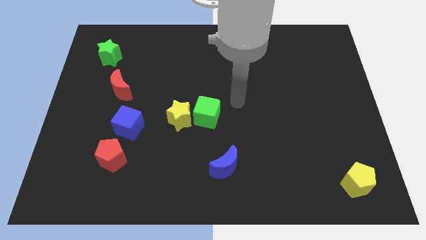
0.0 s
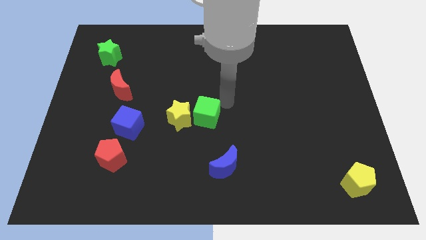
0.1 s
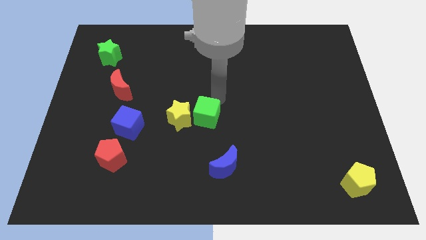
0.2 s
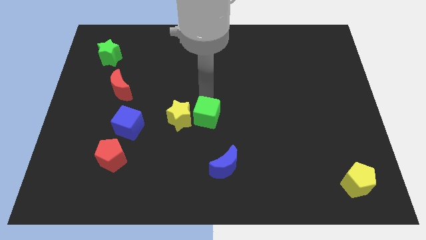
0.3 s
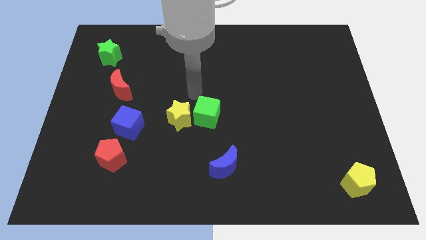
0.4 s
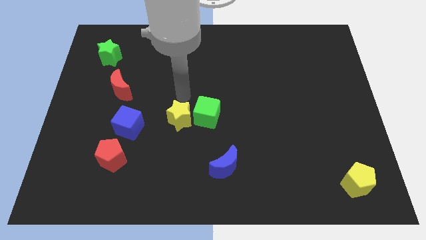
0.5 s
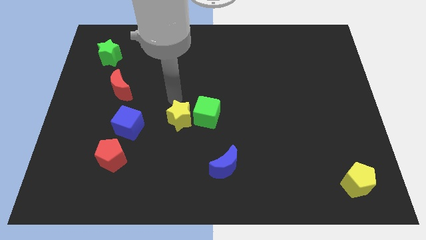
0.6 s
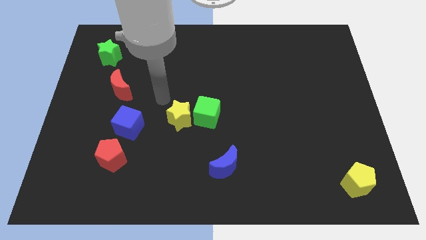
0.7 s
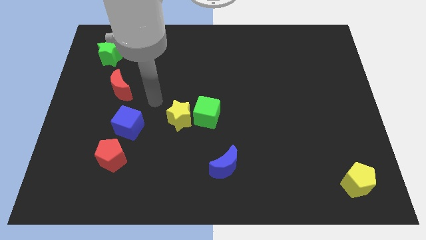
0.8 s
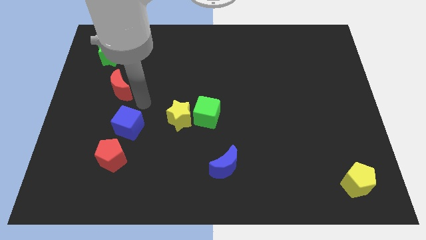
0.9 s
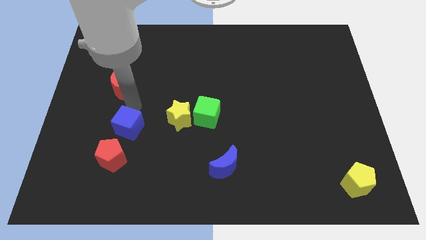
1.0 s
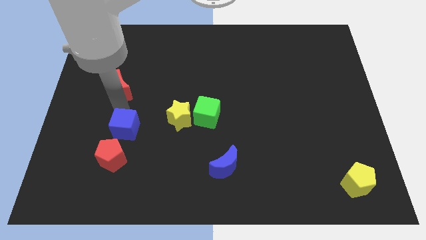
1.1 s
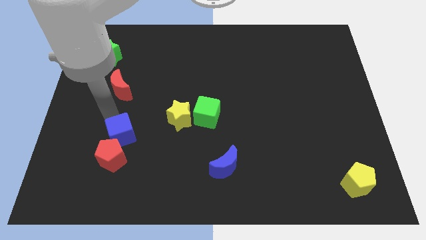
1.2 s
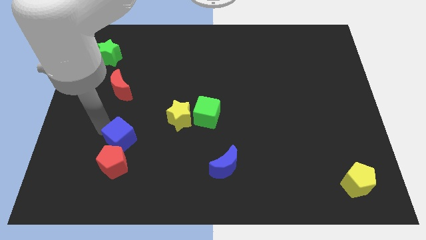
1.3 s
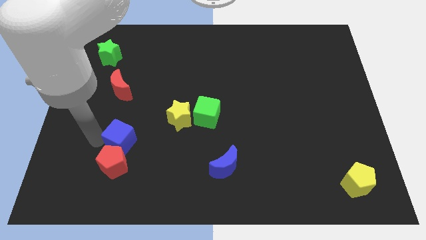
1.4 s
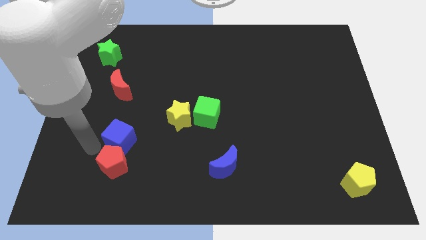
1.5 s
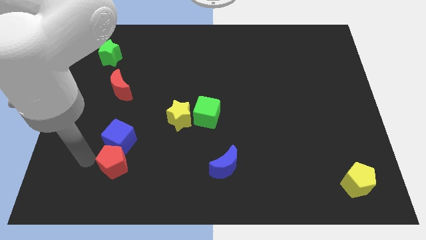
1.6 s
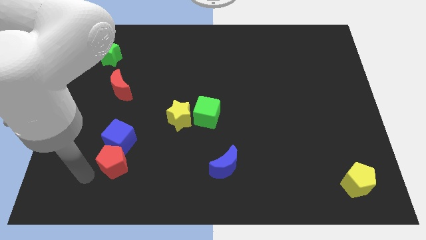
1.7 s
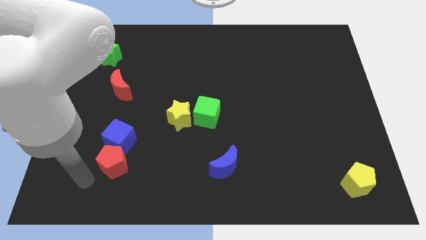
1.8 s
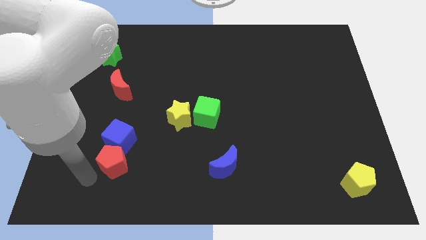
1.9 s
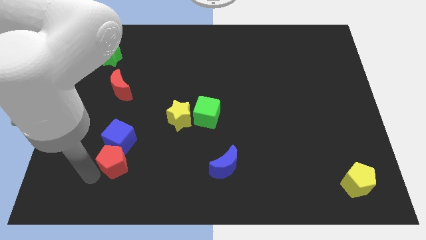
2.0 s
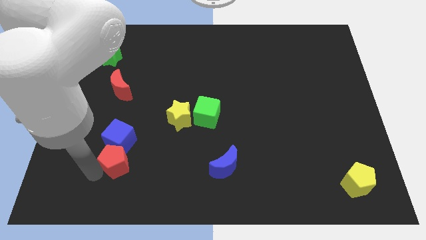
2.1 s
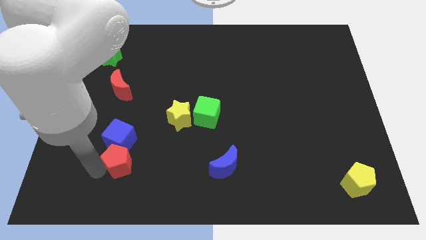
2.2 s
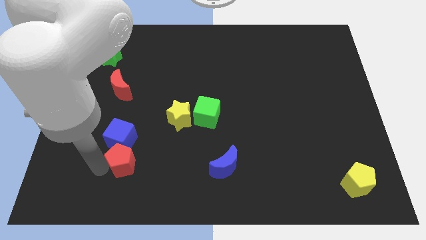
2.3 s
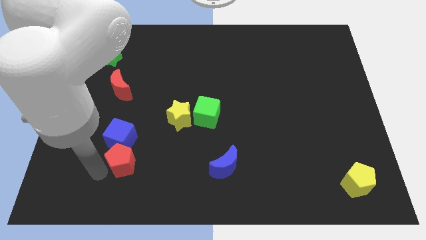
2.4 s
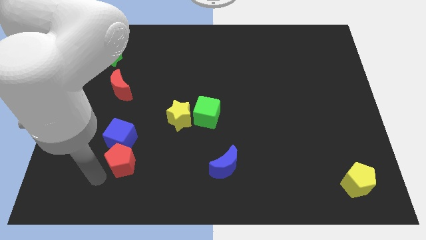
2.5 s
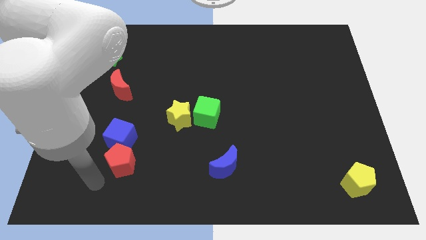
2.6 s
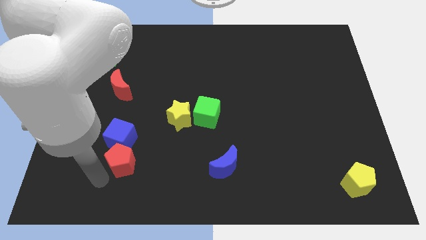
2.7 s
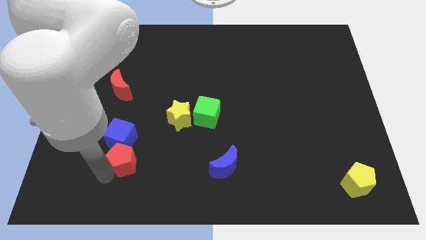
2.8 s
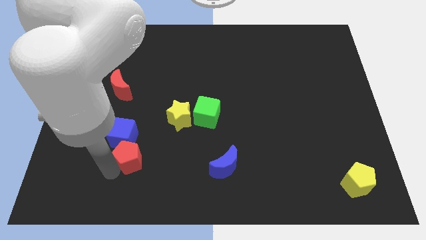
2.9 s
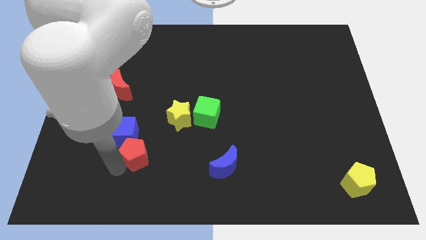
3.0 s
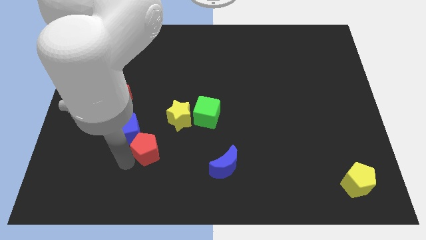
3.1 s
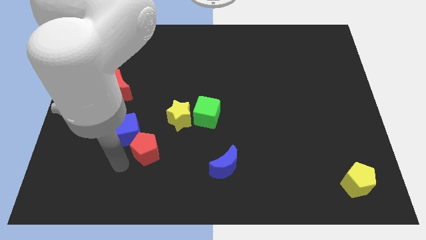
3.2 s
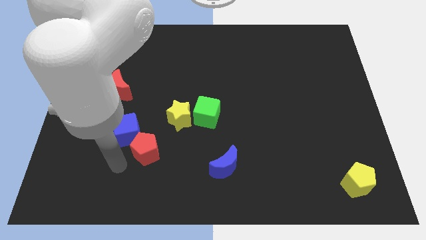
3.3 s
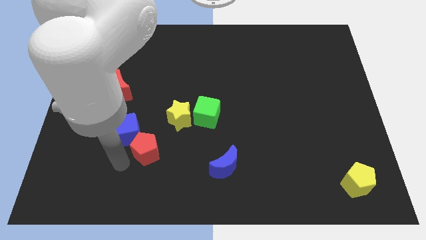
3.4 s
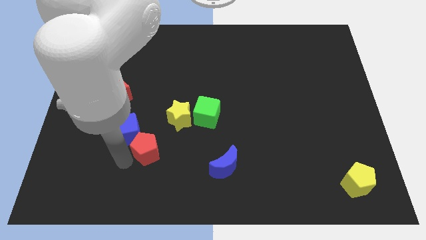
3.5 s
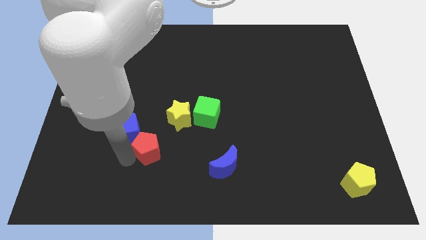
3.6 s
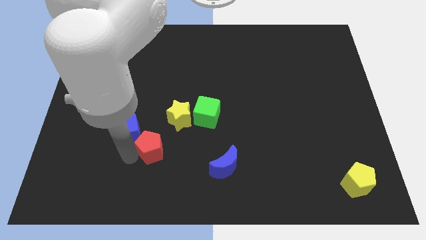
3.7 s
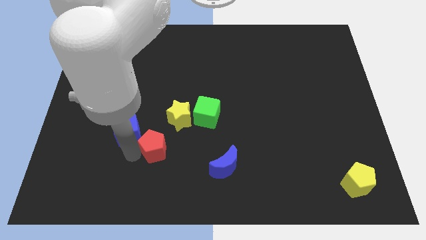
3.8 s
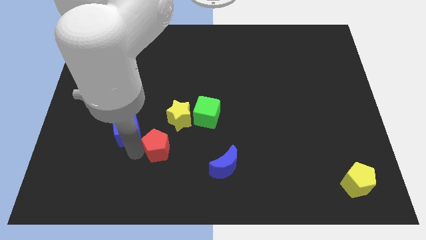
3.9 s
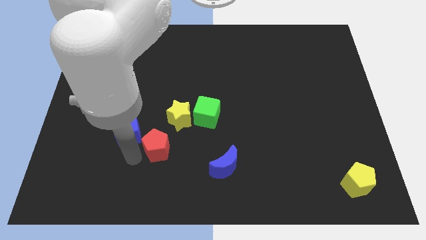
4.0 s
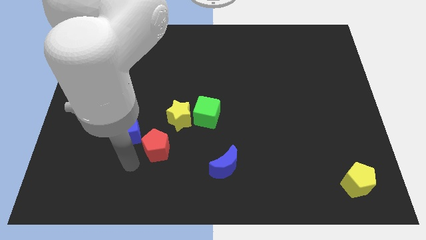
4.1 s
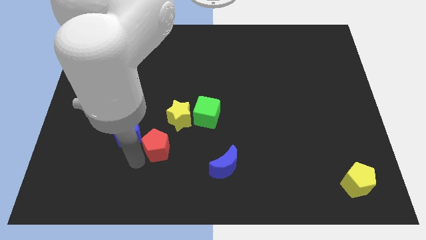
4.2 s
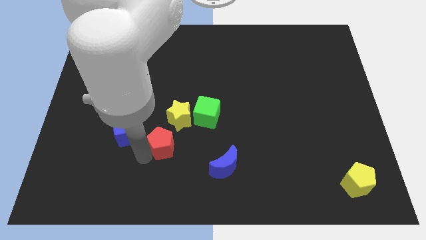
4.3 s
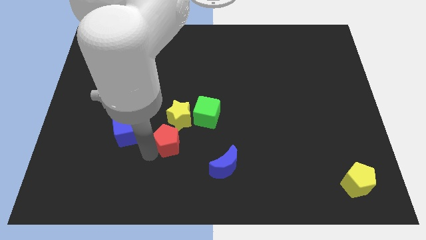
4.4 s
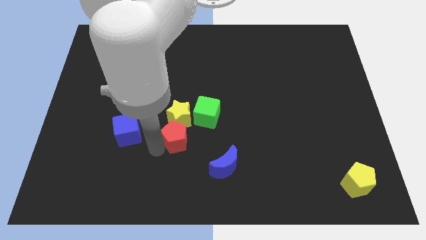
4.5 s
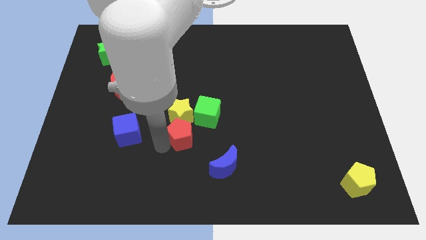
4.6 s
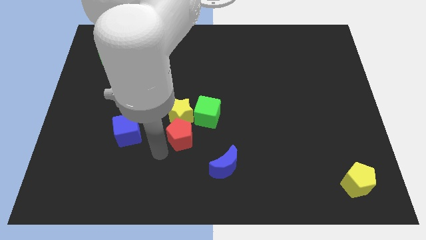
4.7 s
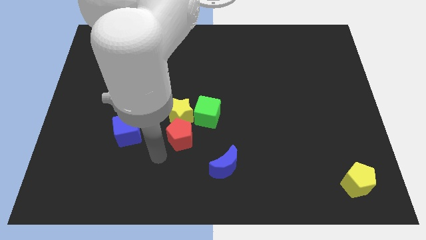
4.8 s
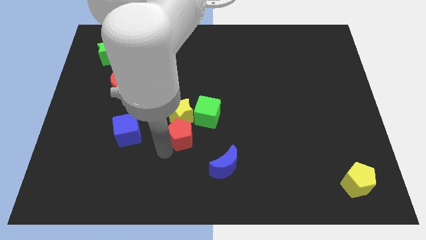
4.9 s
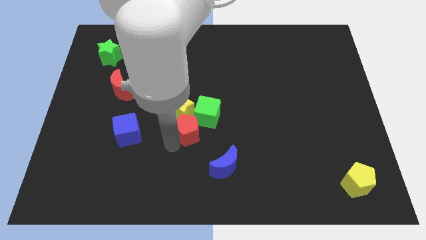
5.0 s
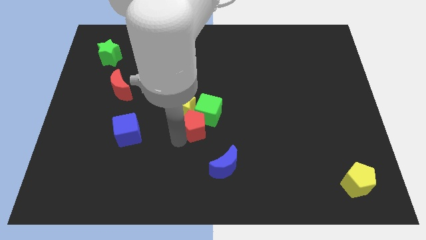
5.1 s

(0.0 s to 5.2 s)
push the red pentagon close to the green cube

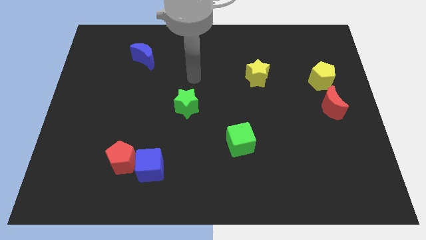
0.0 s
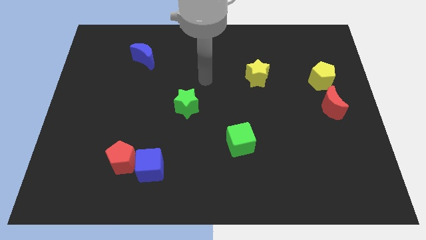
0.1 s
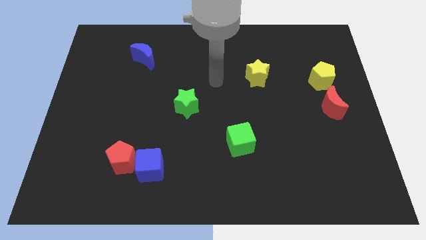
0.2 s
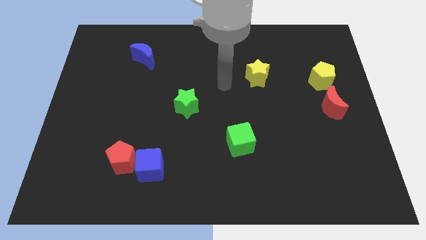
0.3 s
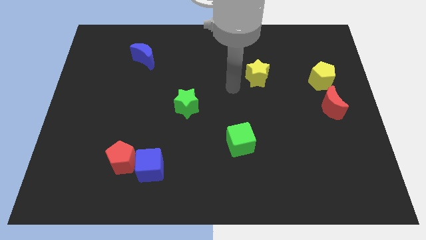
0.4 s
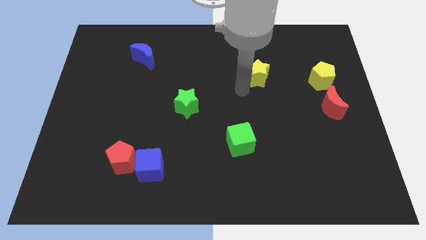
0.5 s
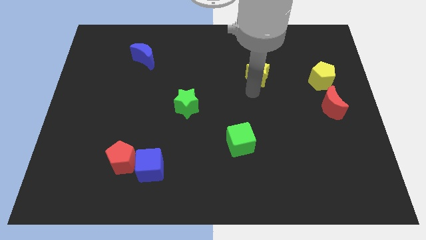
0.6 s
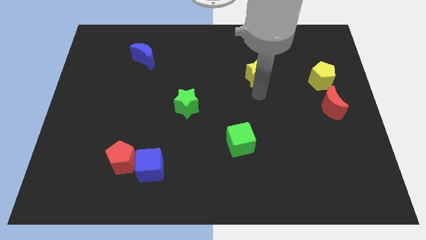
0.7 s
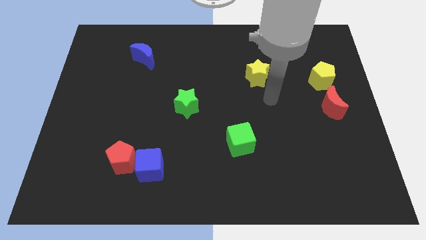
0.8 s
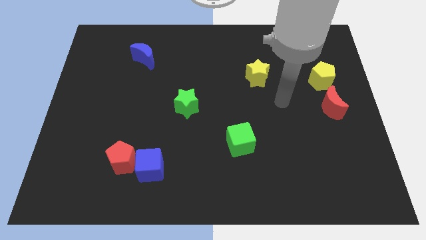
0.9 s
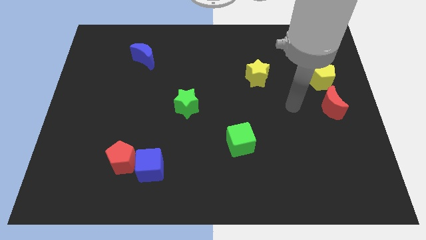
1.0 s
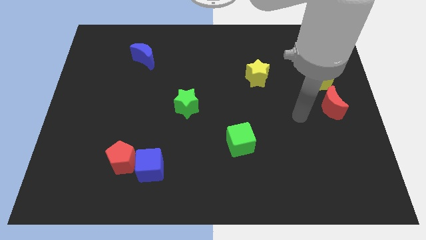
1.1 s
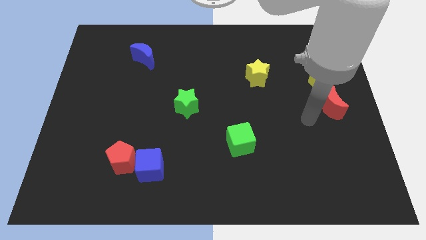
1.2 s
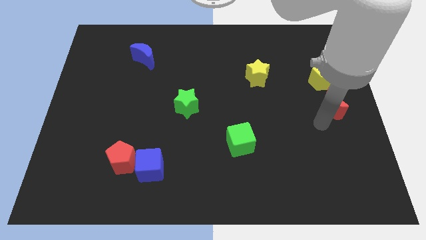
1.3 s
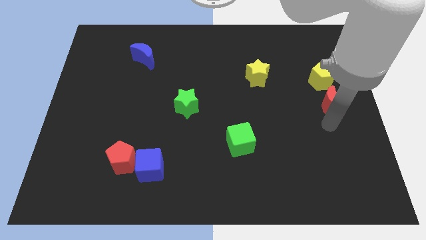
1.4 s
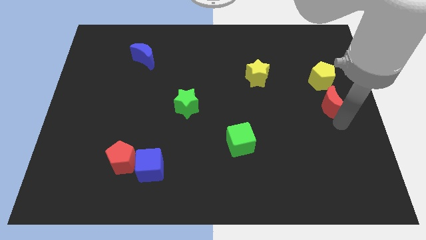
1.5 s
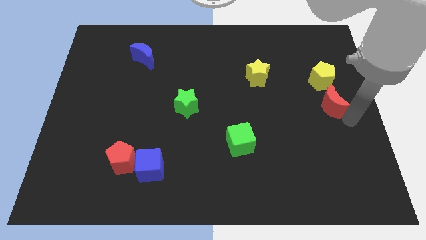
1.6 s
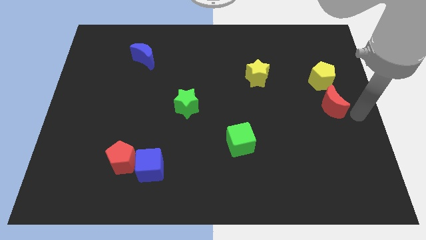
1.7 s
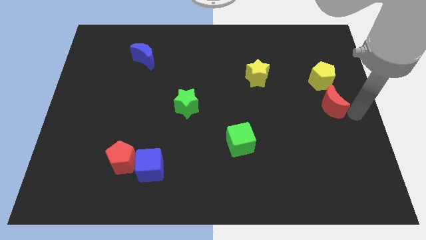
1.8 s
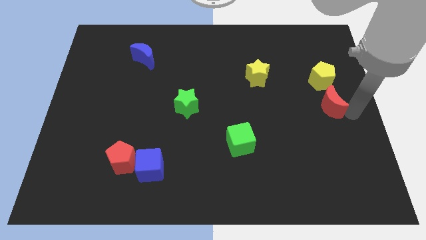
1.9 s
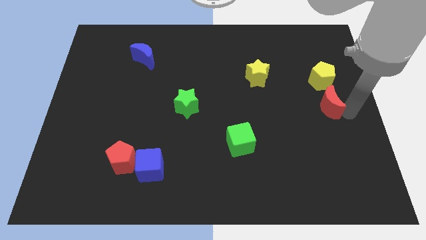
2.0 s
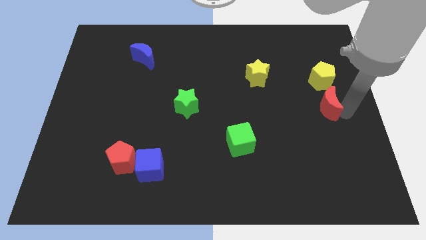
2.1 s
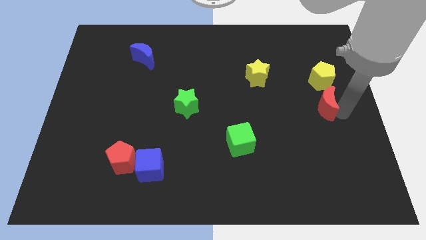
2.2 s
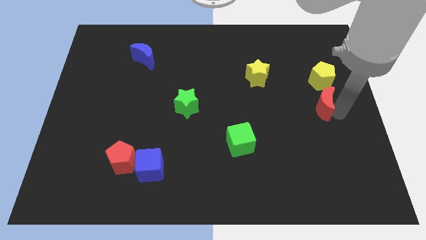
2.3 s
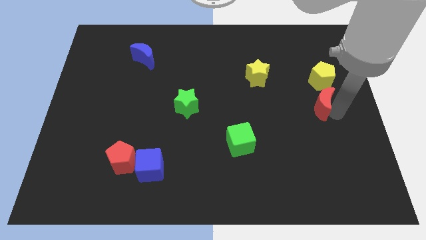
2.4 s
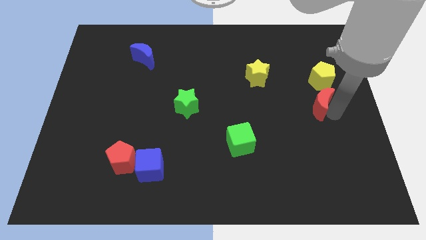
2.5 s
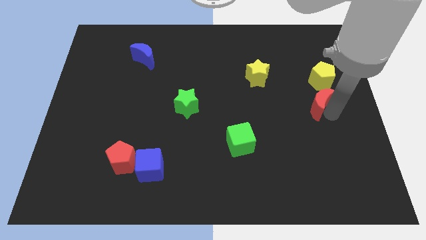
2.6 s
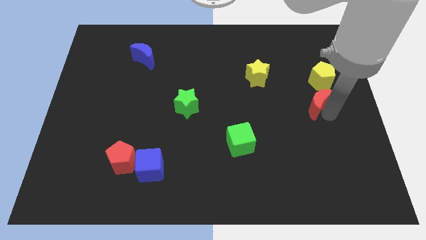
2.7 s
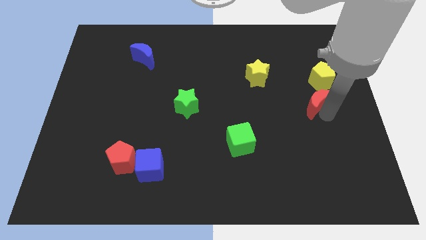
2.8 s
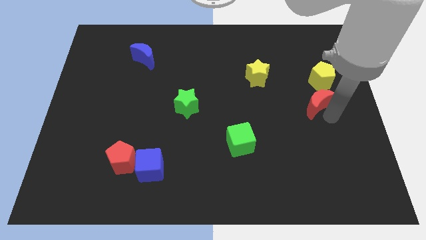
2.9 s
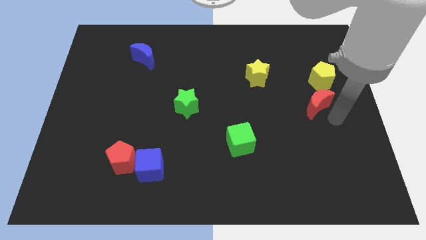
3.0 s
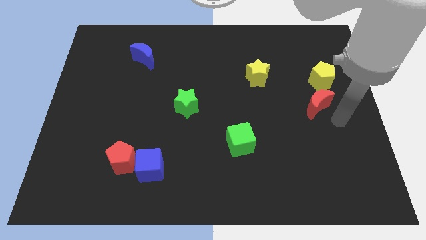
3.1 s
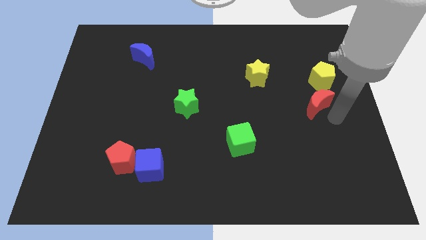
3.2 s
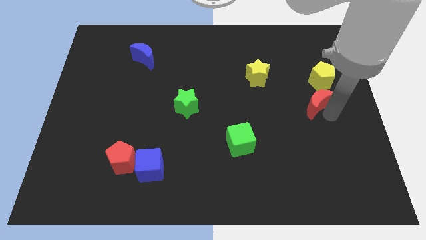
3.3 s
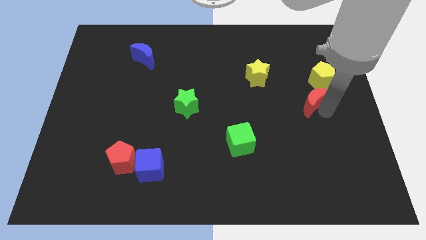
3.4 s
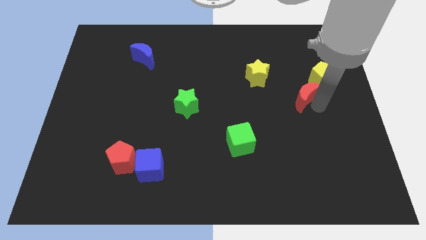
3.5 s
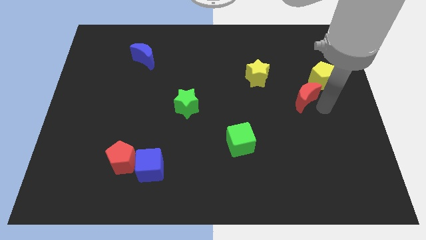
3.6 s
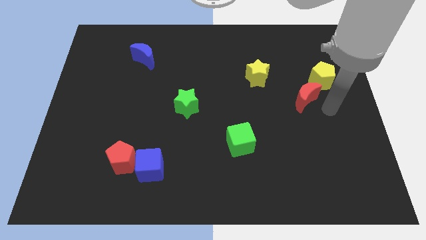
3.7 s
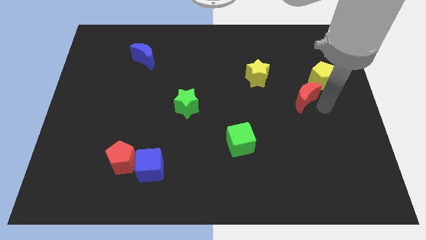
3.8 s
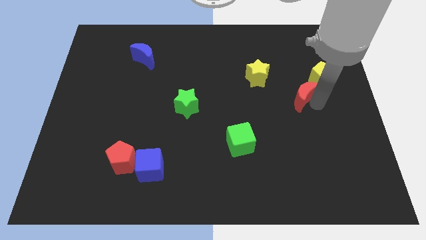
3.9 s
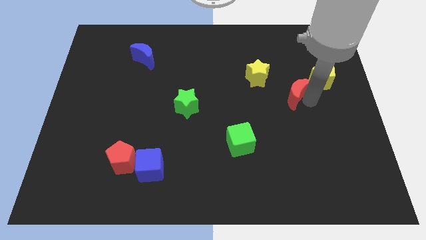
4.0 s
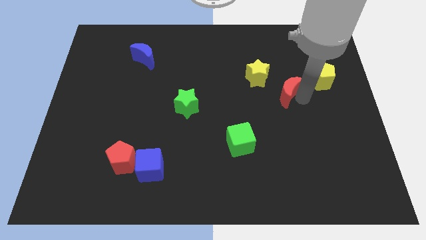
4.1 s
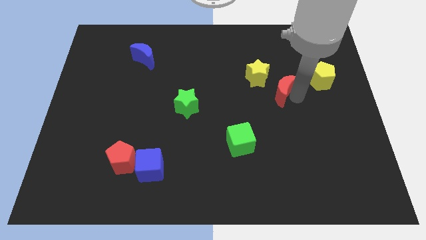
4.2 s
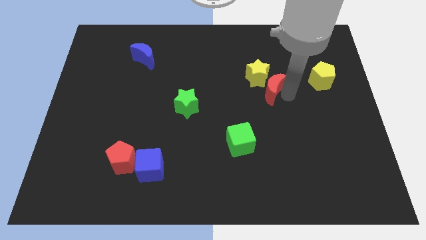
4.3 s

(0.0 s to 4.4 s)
slide the red moon close to the yellow star
